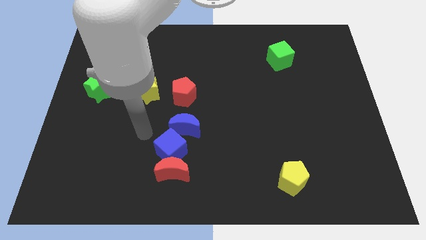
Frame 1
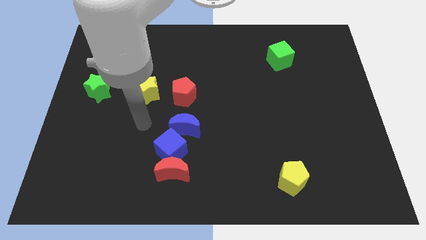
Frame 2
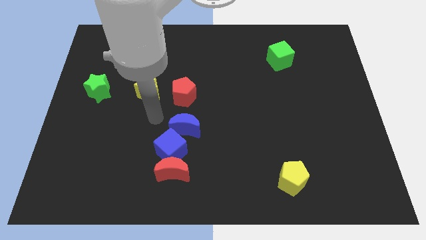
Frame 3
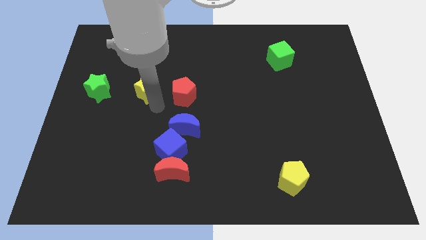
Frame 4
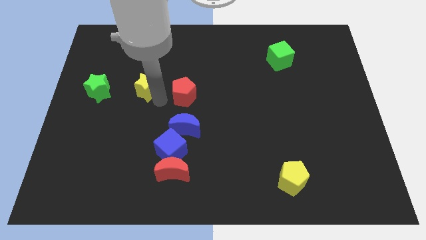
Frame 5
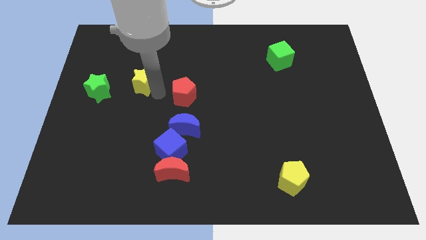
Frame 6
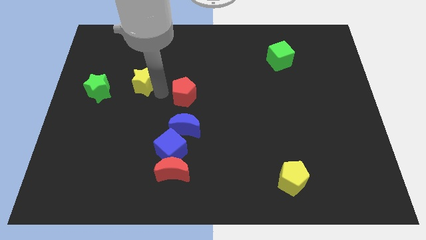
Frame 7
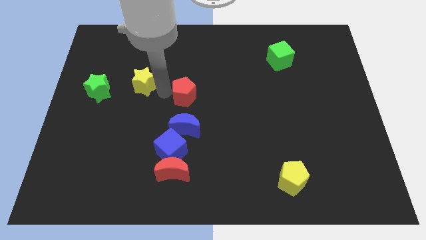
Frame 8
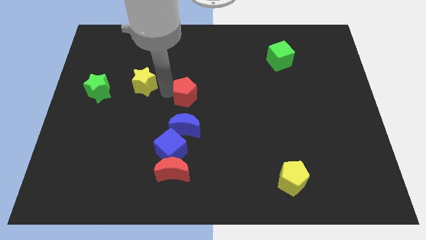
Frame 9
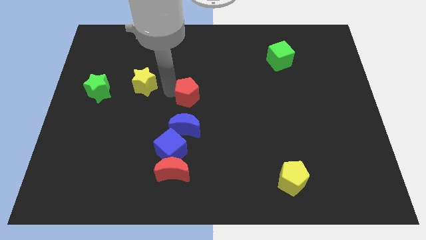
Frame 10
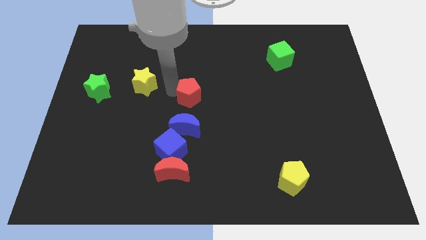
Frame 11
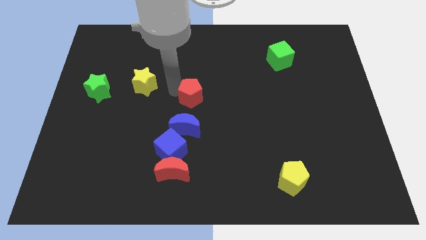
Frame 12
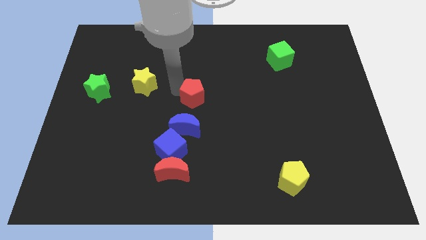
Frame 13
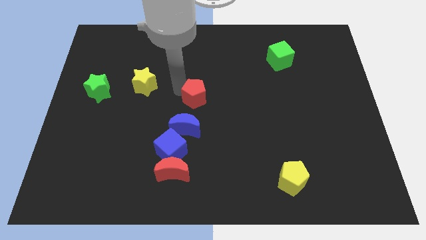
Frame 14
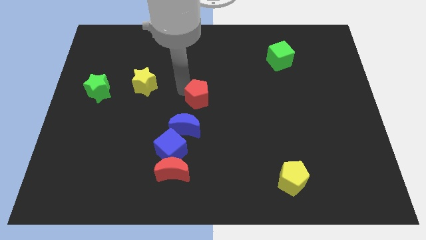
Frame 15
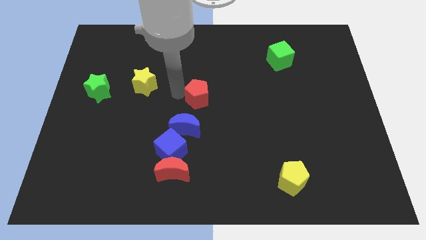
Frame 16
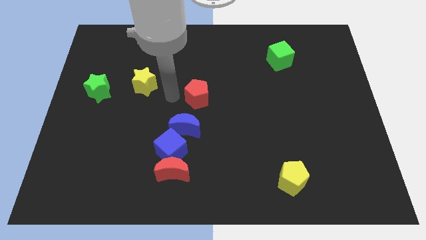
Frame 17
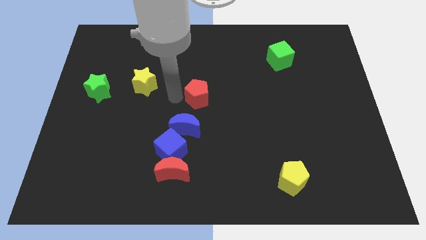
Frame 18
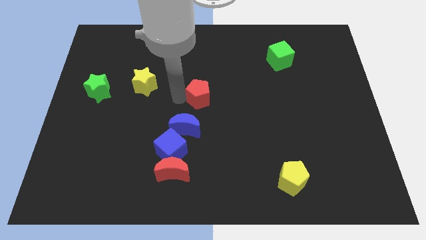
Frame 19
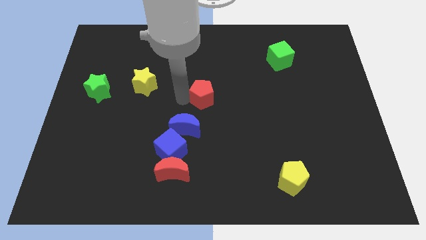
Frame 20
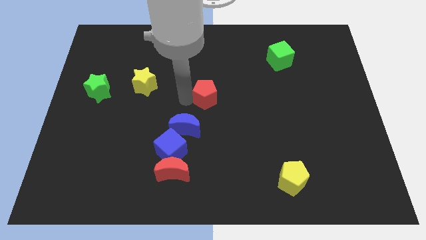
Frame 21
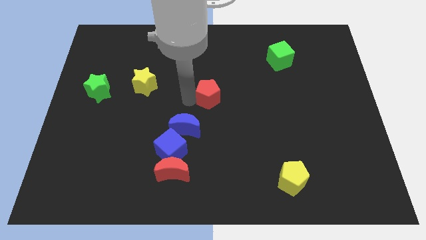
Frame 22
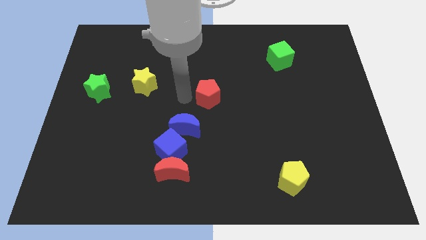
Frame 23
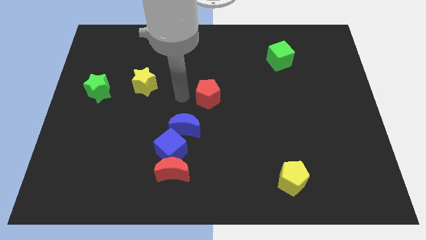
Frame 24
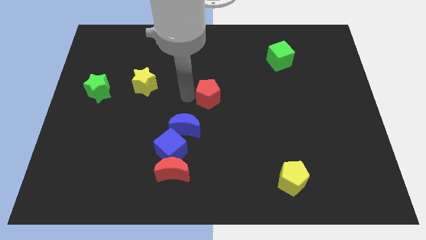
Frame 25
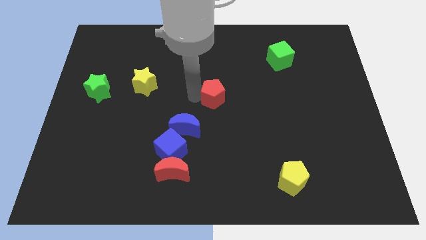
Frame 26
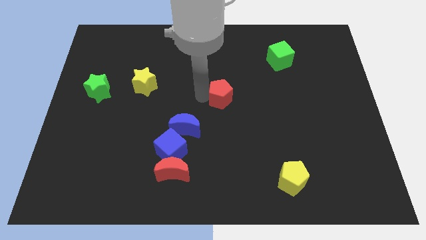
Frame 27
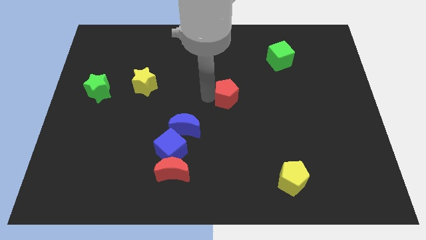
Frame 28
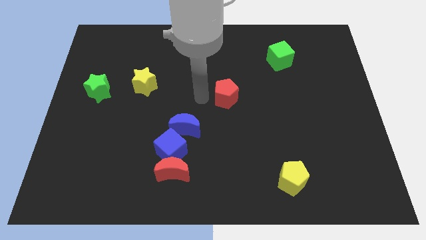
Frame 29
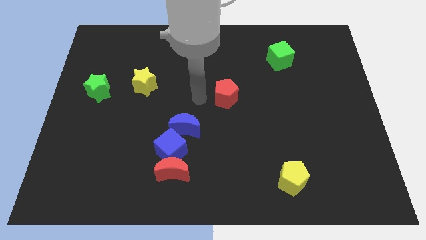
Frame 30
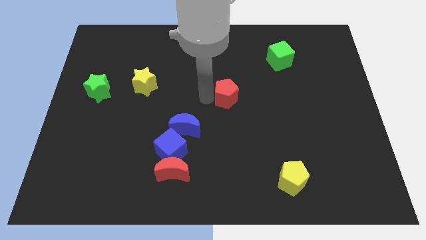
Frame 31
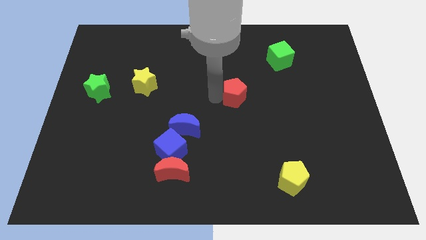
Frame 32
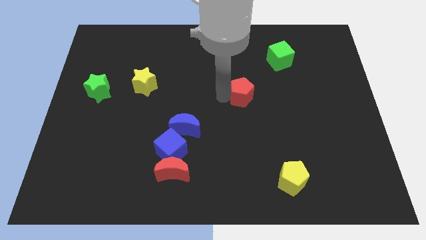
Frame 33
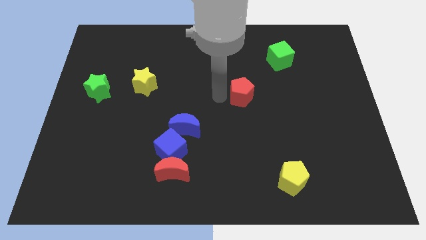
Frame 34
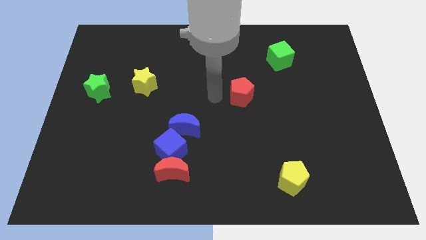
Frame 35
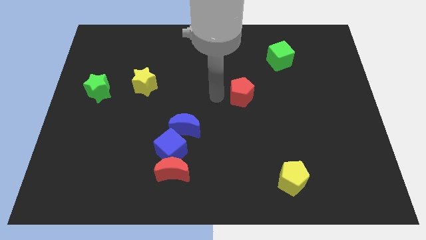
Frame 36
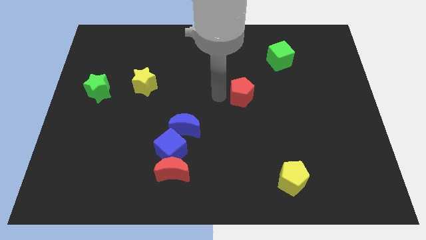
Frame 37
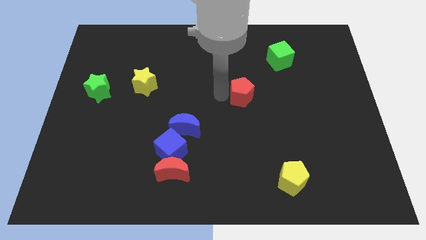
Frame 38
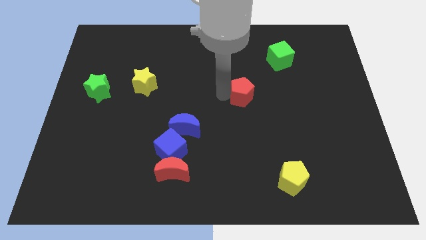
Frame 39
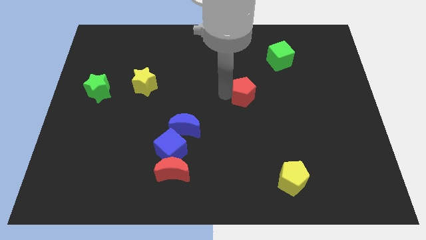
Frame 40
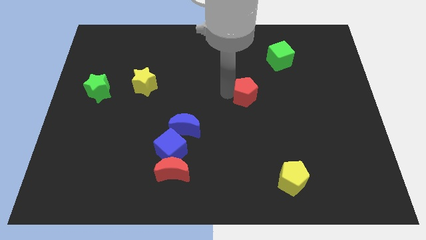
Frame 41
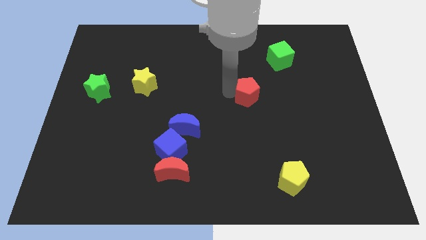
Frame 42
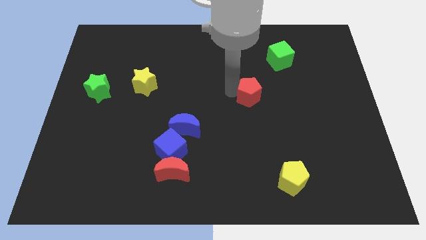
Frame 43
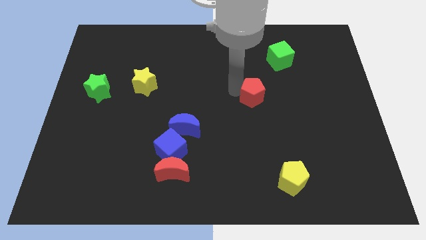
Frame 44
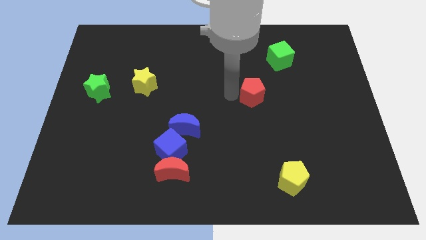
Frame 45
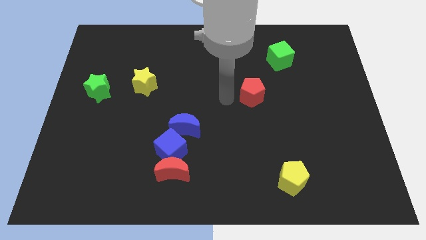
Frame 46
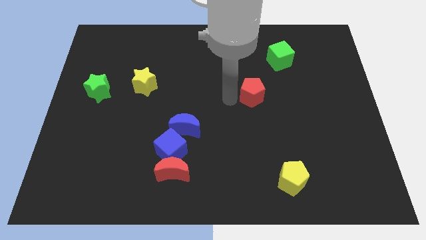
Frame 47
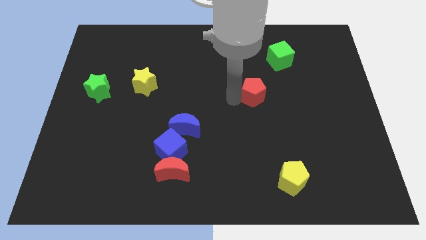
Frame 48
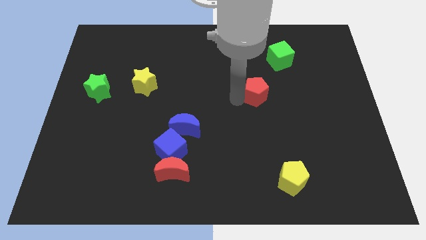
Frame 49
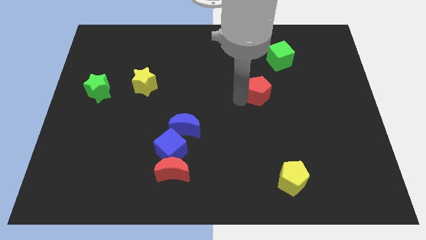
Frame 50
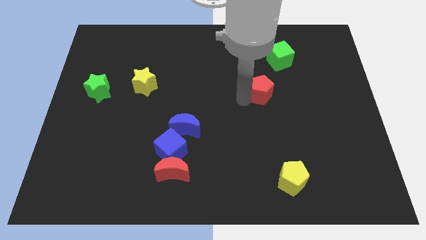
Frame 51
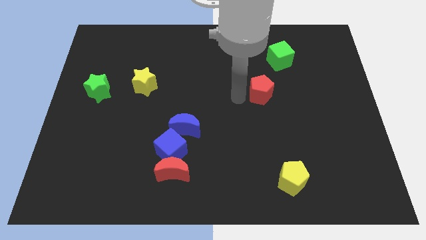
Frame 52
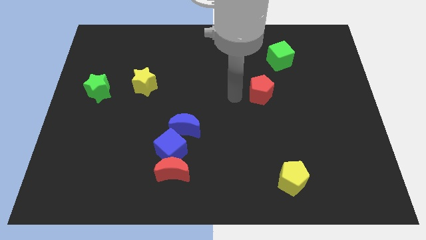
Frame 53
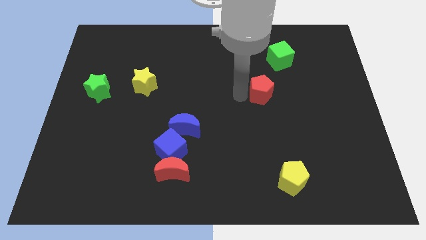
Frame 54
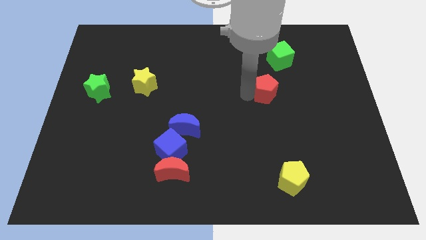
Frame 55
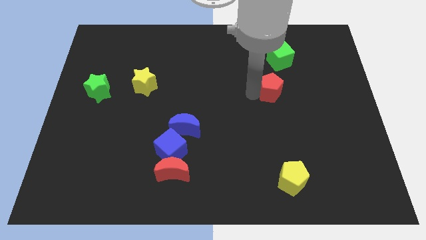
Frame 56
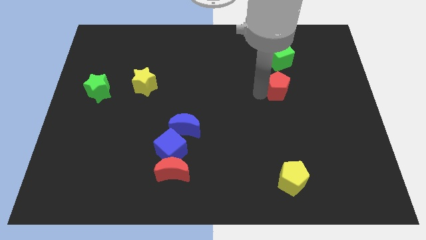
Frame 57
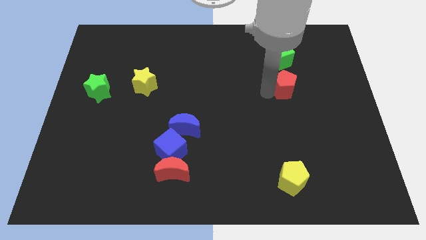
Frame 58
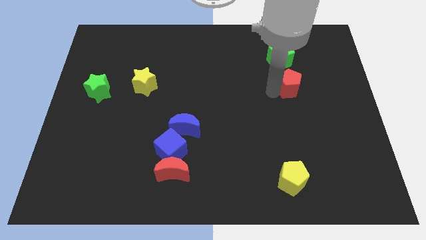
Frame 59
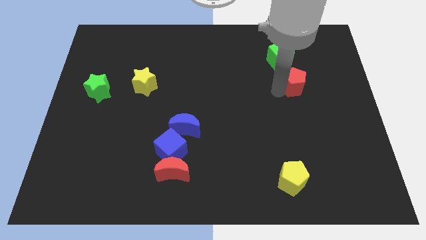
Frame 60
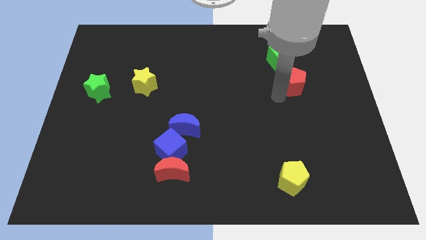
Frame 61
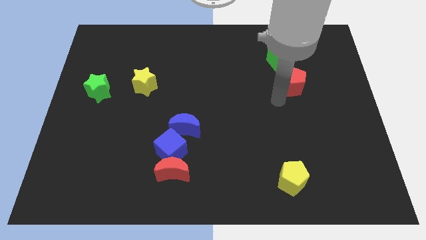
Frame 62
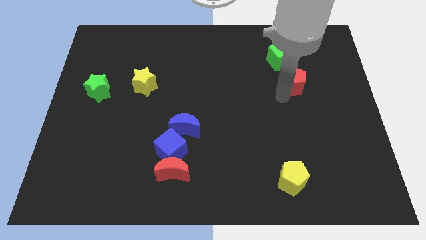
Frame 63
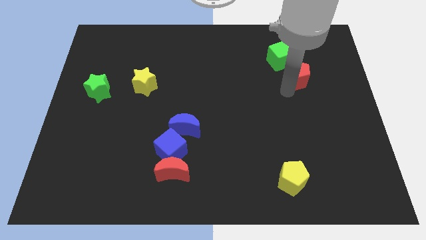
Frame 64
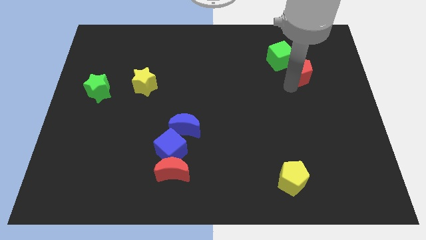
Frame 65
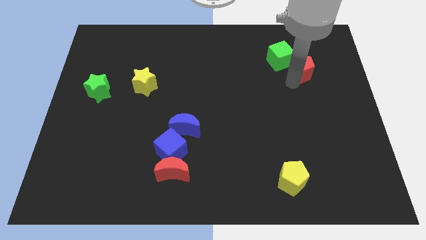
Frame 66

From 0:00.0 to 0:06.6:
slide the red pentagon just right of the green cube

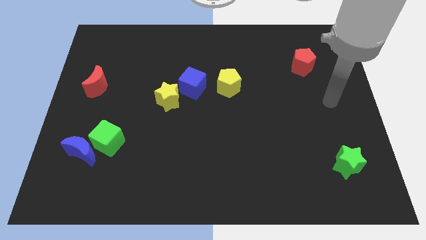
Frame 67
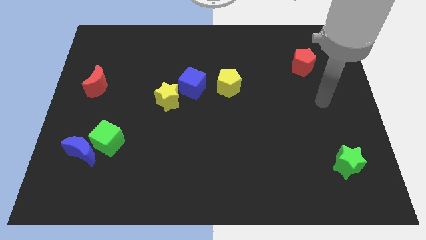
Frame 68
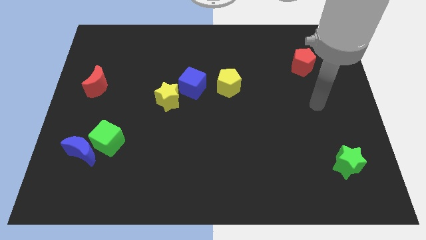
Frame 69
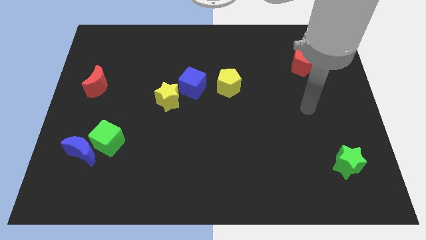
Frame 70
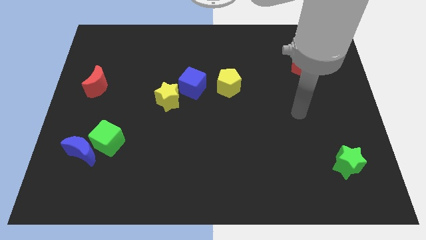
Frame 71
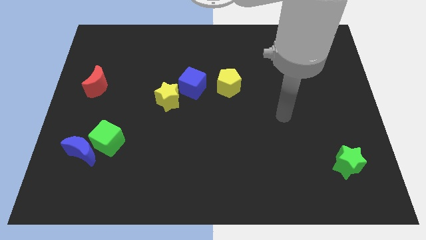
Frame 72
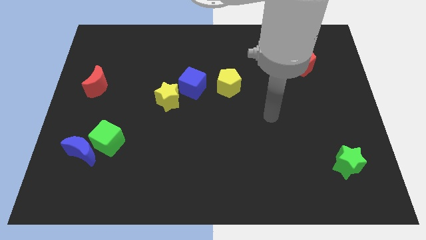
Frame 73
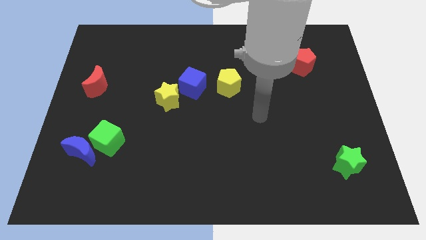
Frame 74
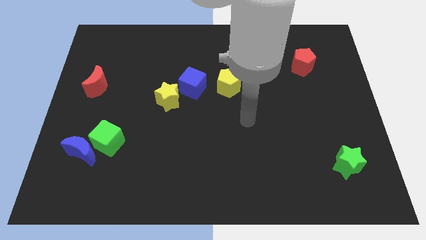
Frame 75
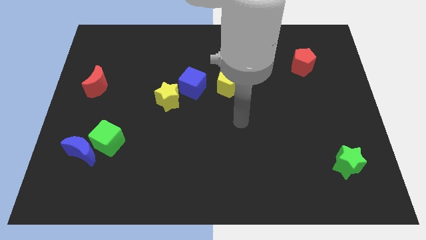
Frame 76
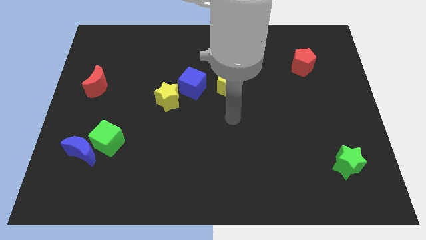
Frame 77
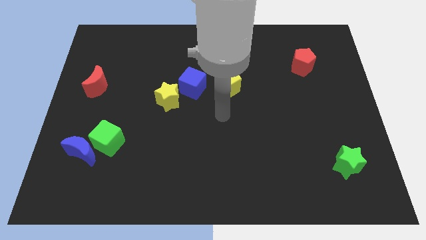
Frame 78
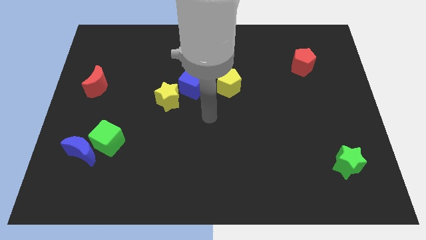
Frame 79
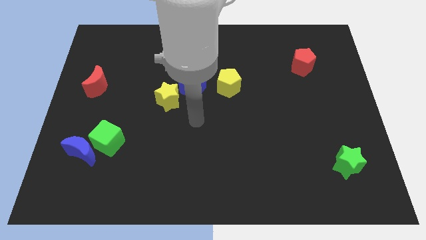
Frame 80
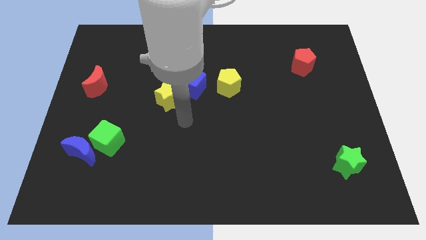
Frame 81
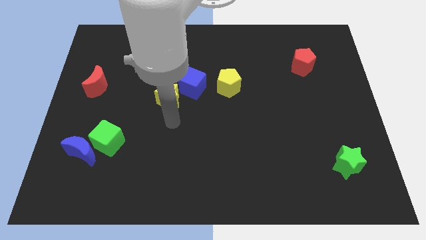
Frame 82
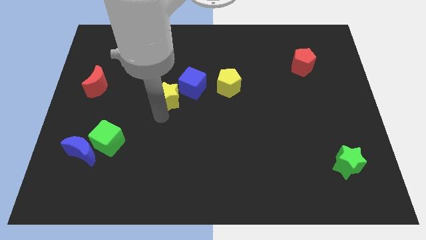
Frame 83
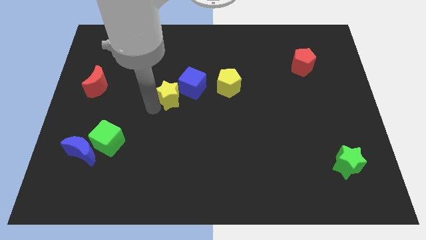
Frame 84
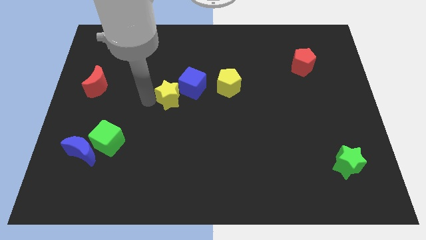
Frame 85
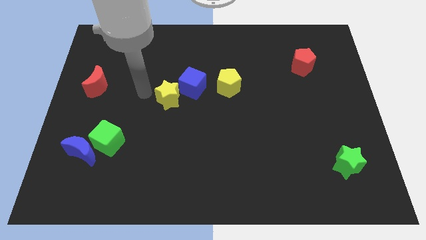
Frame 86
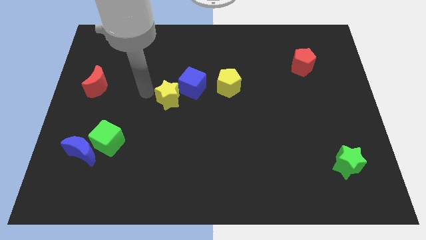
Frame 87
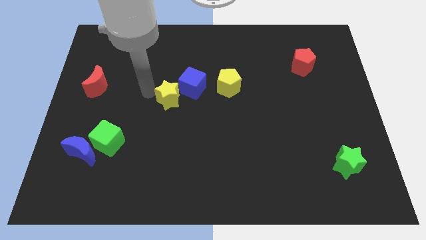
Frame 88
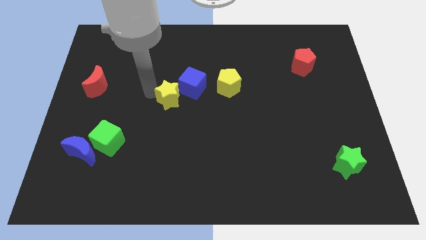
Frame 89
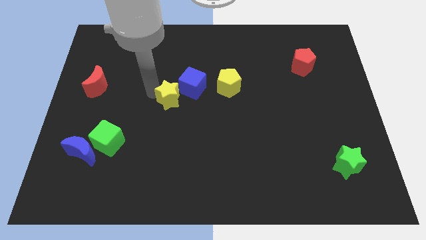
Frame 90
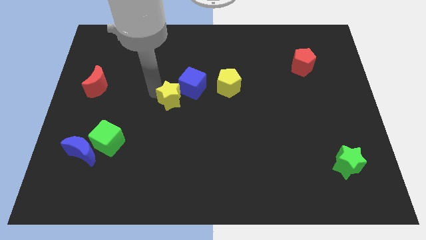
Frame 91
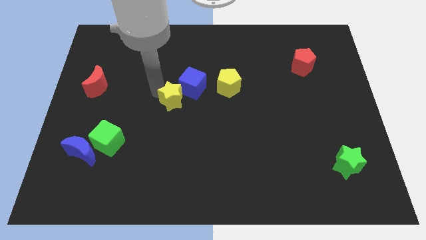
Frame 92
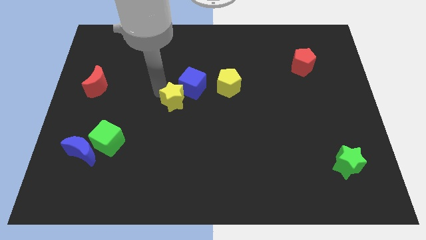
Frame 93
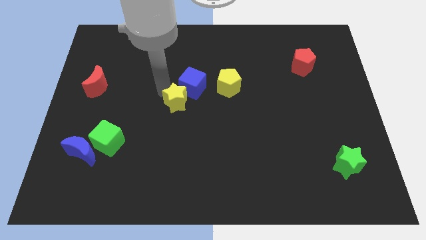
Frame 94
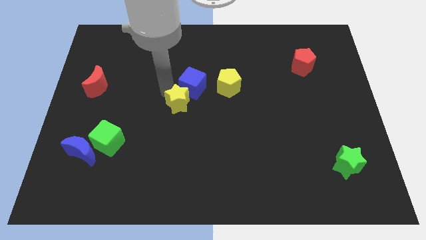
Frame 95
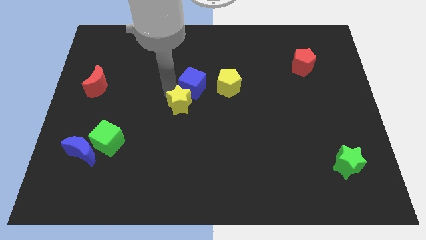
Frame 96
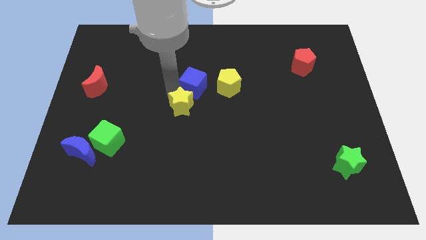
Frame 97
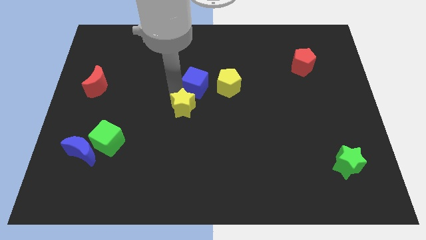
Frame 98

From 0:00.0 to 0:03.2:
move the yellow star diagonally down and to the left of the yellow pentagon
